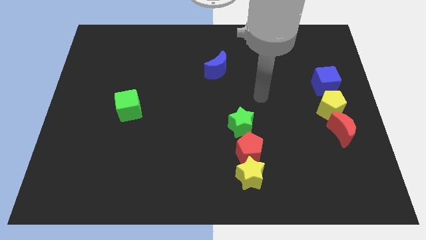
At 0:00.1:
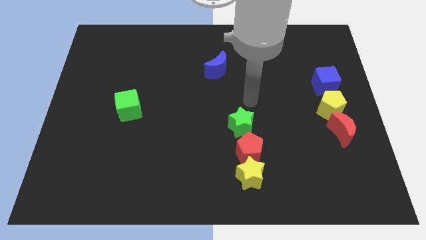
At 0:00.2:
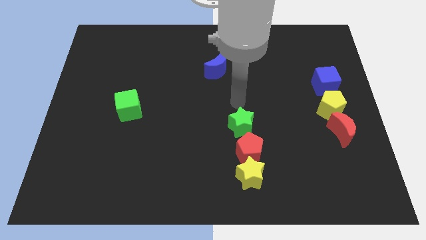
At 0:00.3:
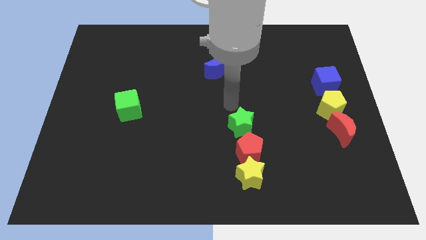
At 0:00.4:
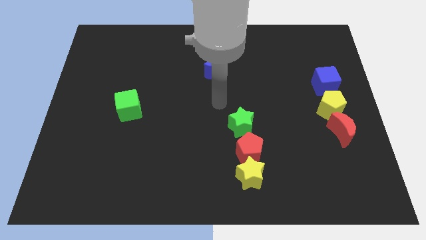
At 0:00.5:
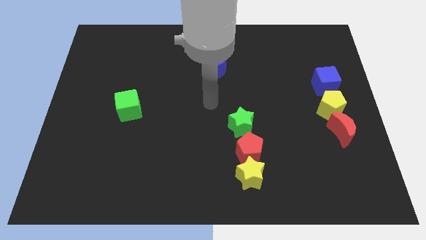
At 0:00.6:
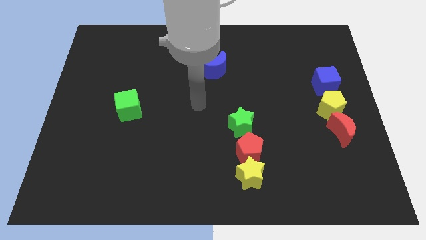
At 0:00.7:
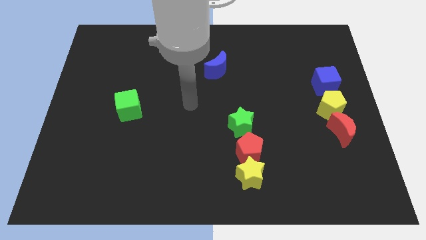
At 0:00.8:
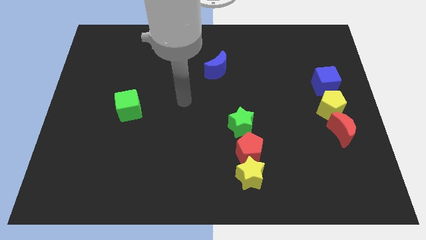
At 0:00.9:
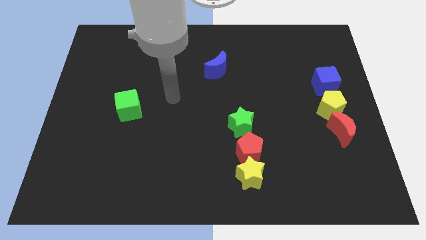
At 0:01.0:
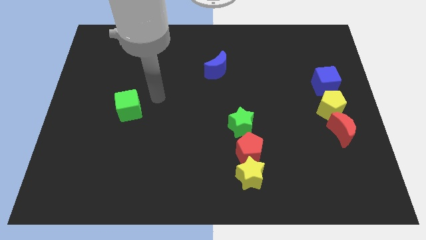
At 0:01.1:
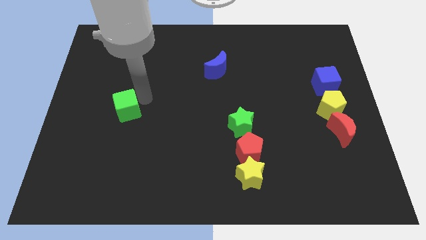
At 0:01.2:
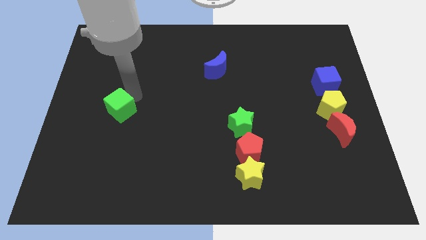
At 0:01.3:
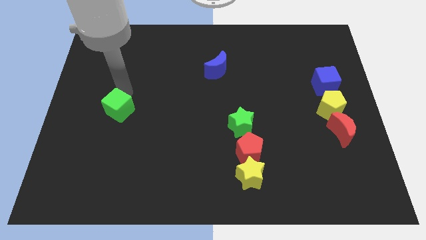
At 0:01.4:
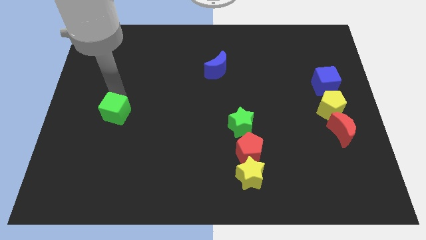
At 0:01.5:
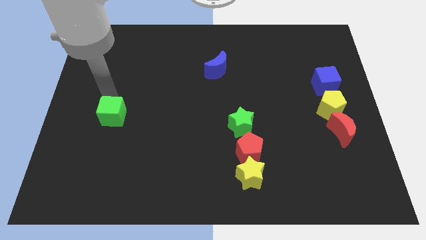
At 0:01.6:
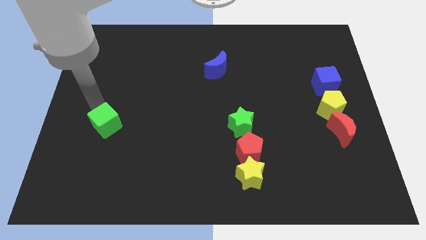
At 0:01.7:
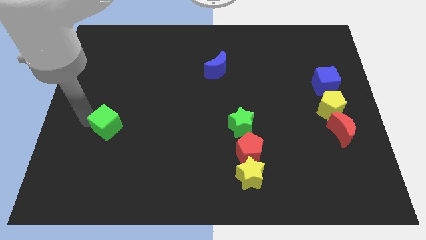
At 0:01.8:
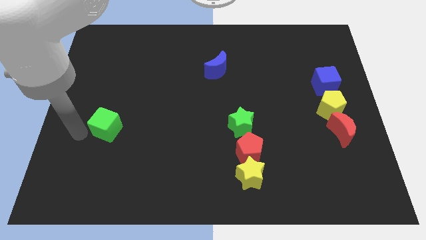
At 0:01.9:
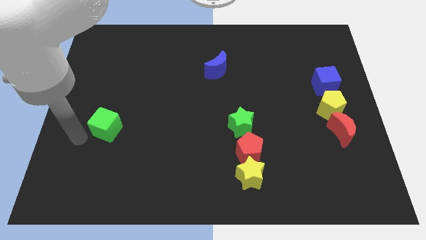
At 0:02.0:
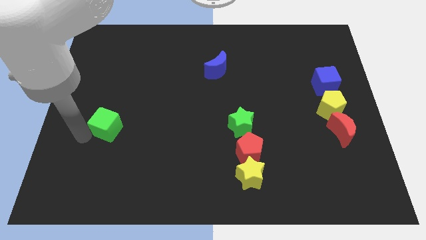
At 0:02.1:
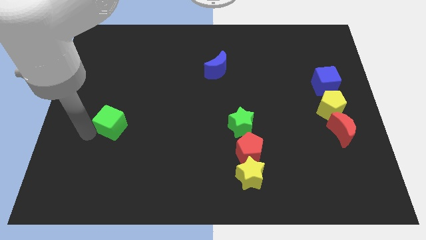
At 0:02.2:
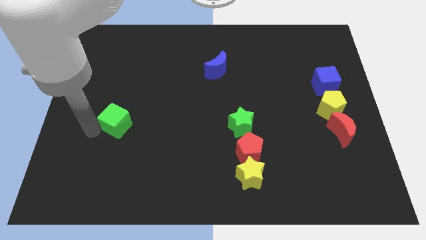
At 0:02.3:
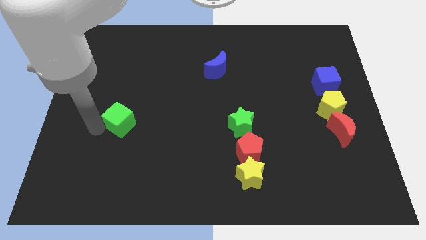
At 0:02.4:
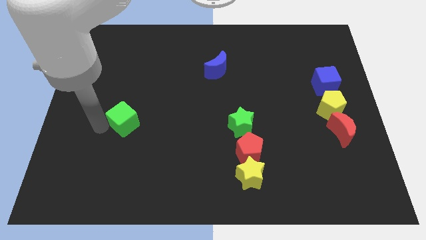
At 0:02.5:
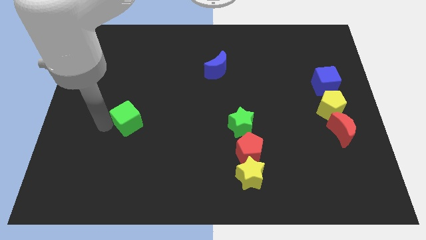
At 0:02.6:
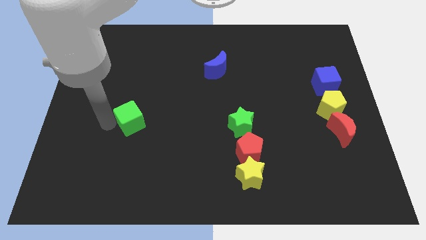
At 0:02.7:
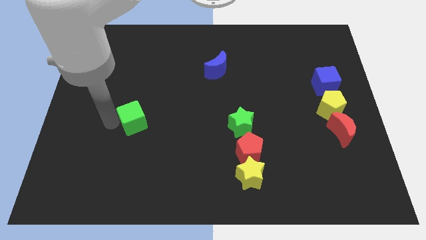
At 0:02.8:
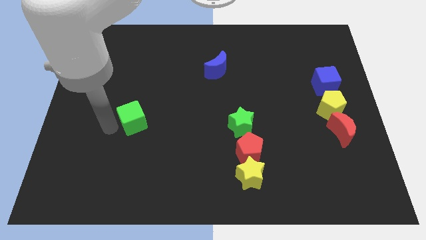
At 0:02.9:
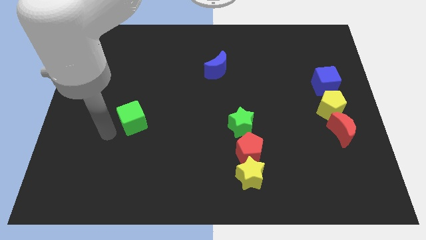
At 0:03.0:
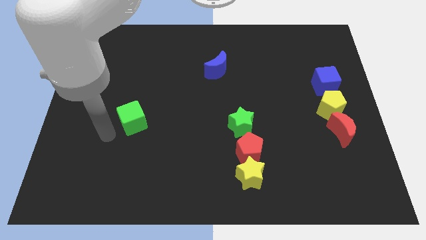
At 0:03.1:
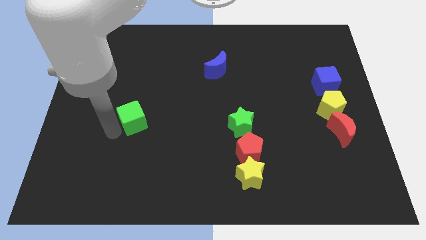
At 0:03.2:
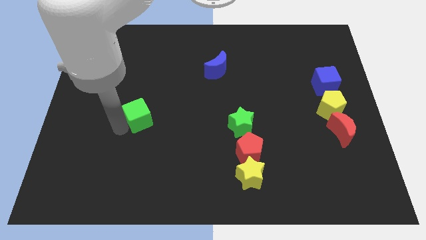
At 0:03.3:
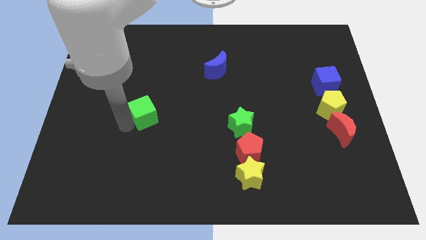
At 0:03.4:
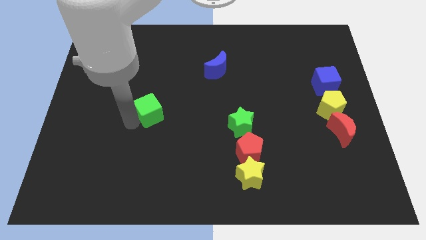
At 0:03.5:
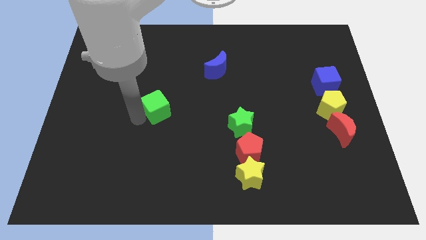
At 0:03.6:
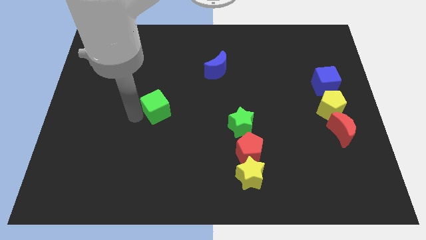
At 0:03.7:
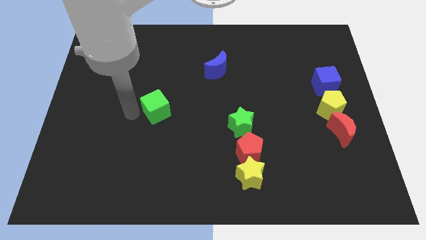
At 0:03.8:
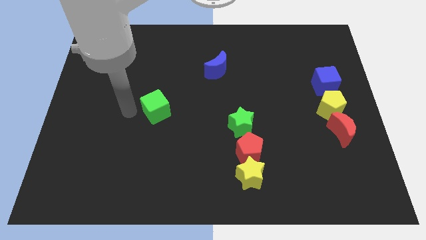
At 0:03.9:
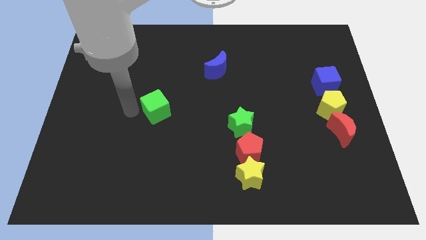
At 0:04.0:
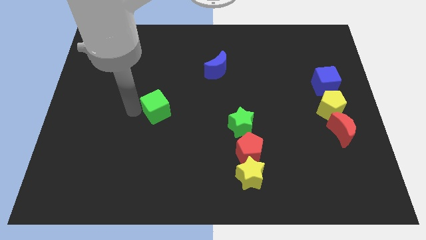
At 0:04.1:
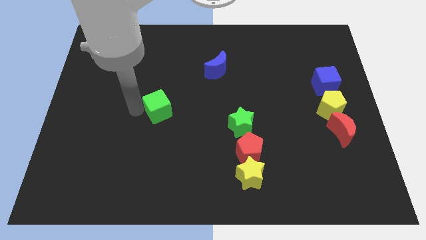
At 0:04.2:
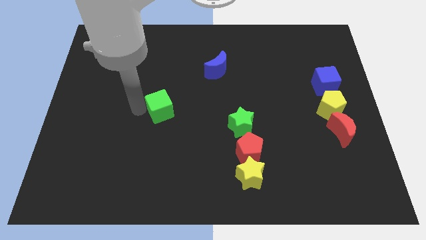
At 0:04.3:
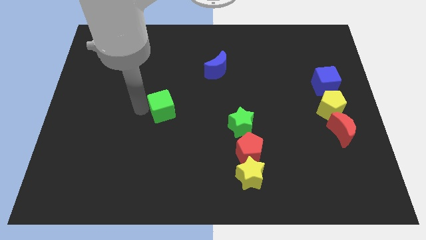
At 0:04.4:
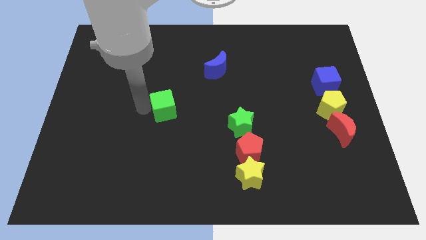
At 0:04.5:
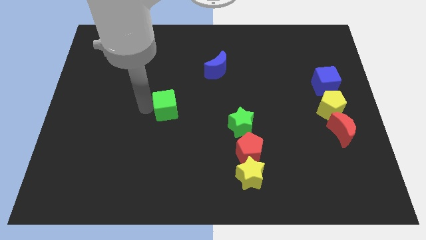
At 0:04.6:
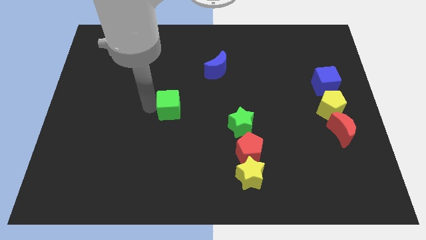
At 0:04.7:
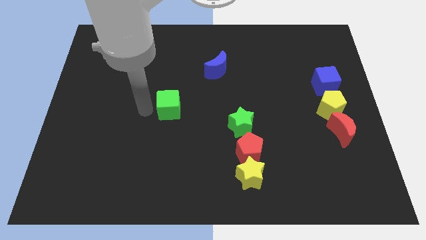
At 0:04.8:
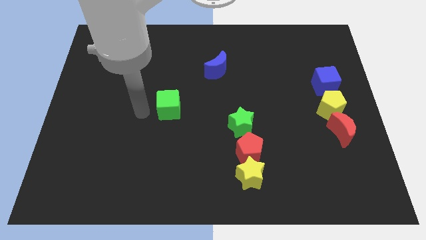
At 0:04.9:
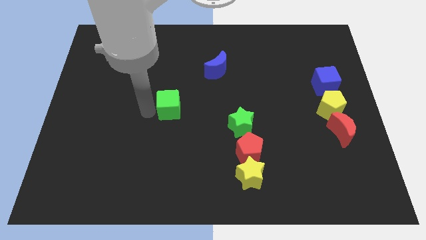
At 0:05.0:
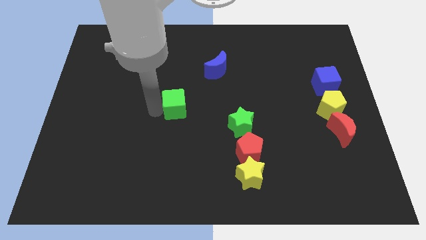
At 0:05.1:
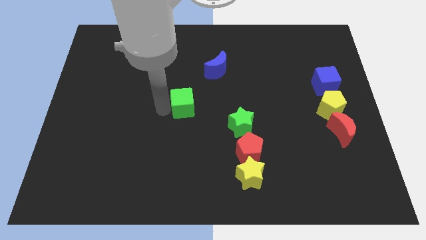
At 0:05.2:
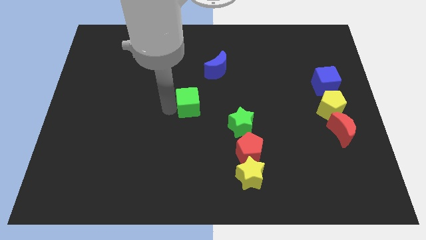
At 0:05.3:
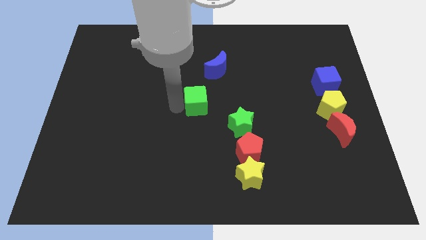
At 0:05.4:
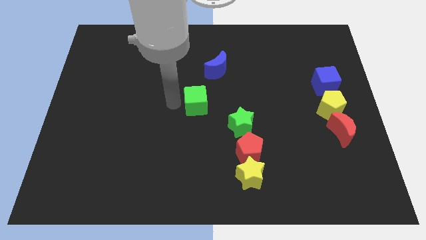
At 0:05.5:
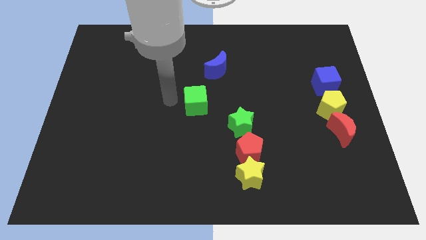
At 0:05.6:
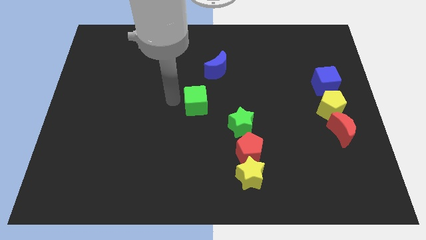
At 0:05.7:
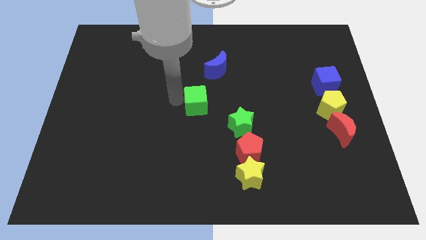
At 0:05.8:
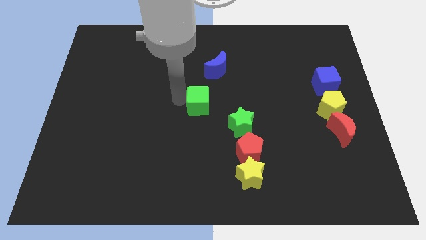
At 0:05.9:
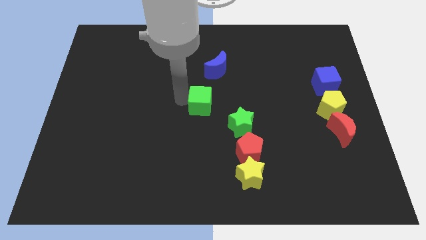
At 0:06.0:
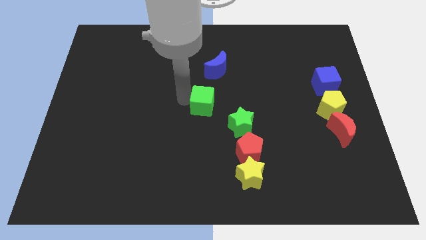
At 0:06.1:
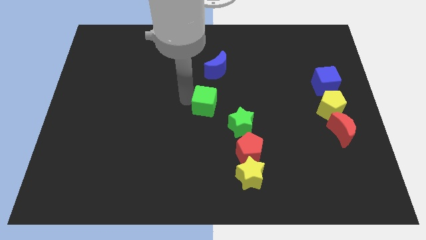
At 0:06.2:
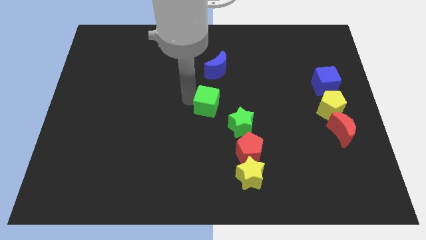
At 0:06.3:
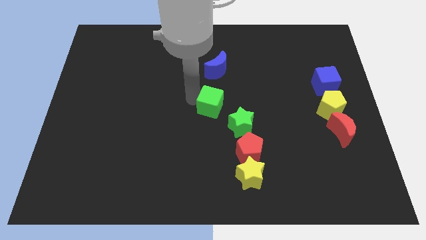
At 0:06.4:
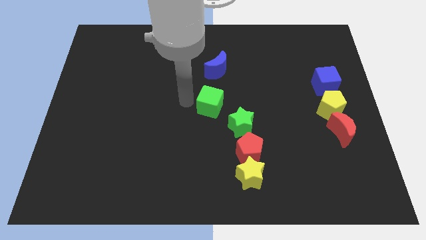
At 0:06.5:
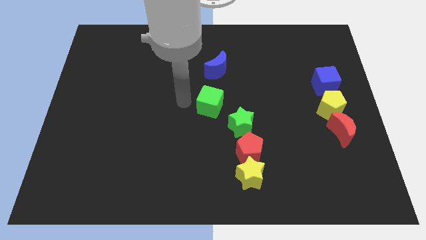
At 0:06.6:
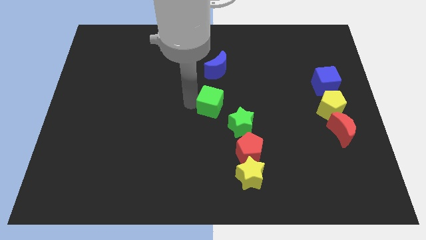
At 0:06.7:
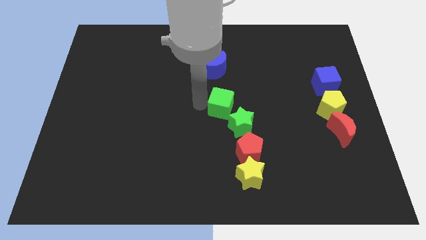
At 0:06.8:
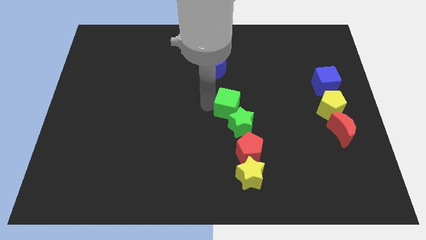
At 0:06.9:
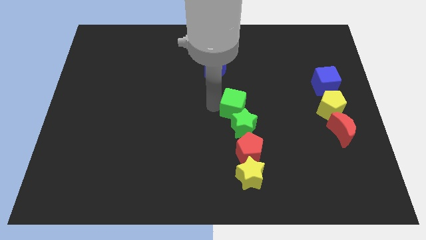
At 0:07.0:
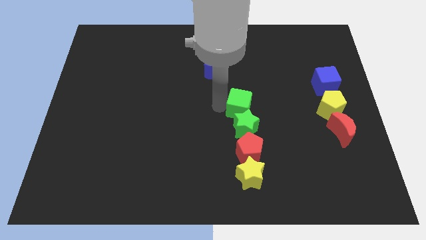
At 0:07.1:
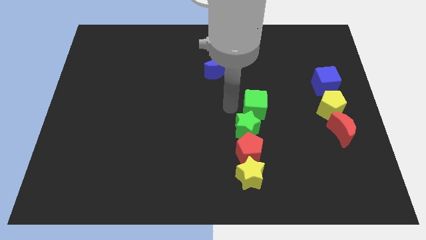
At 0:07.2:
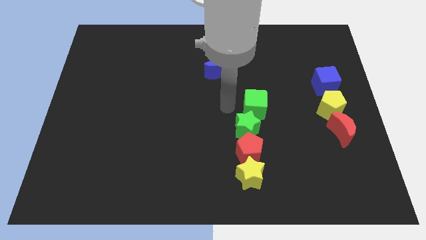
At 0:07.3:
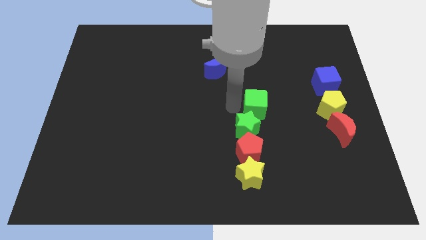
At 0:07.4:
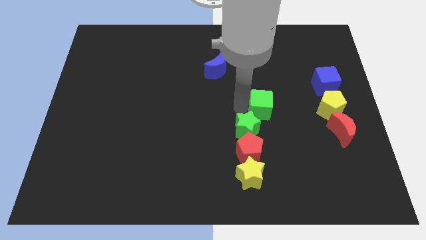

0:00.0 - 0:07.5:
push the green cube left of the yellow pentagon
